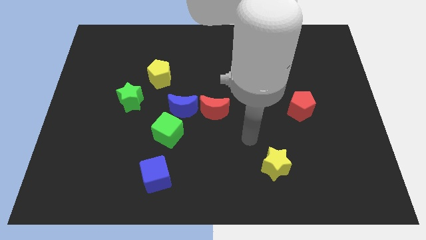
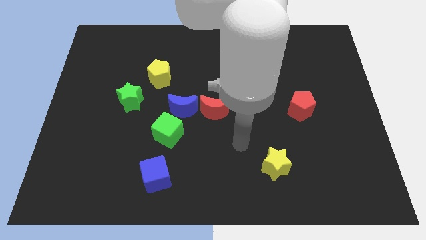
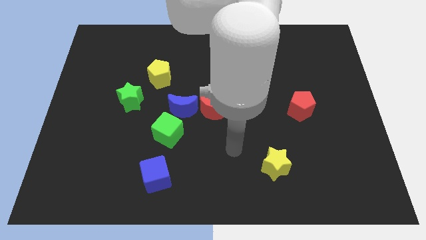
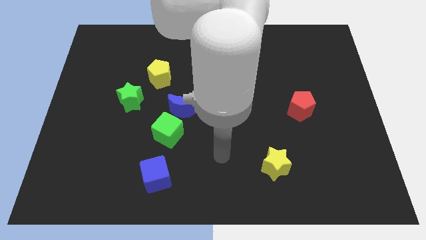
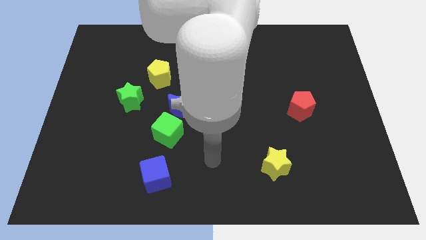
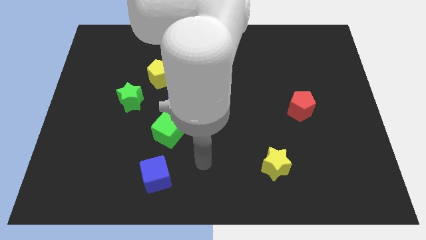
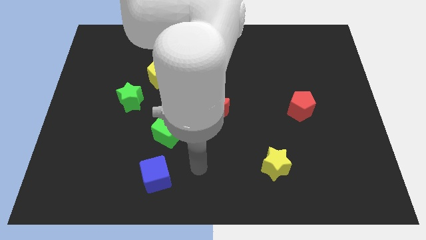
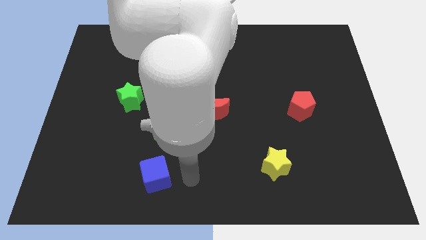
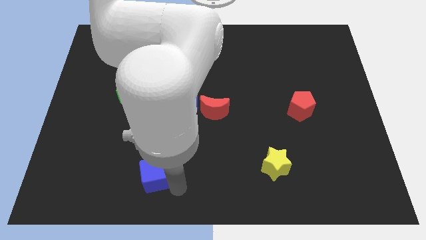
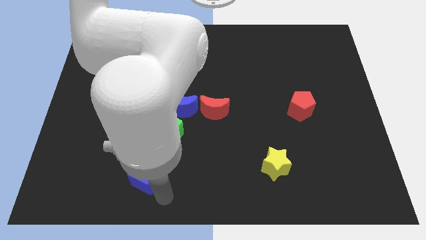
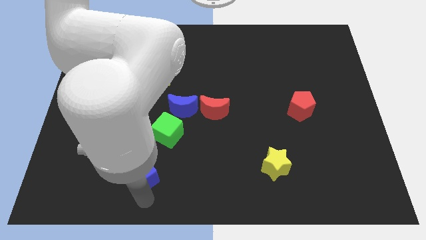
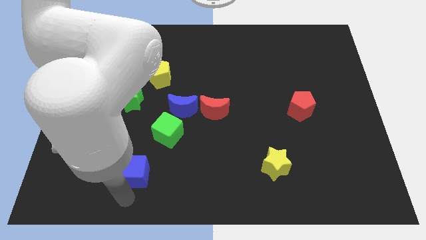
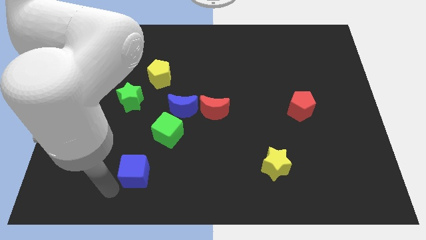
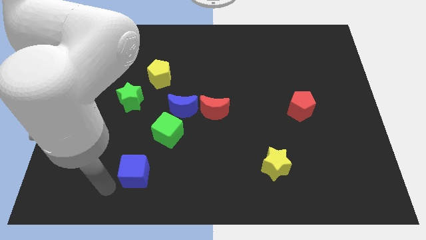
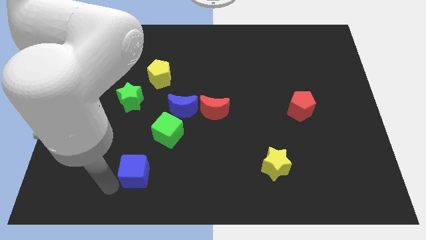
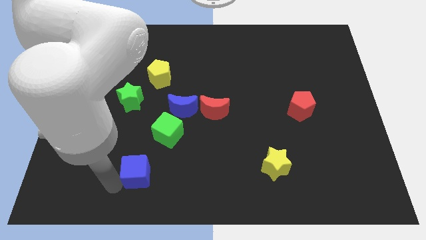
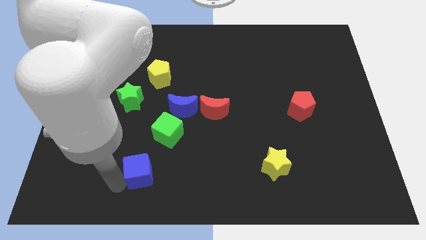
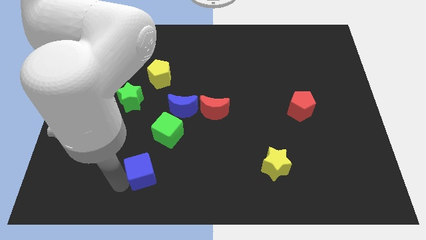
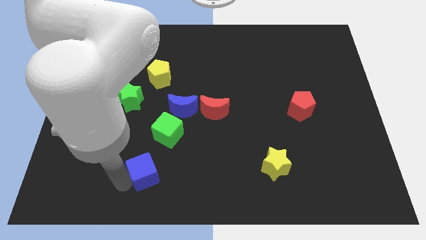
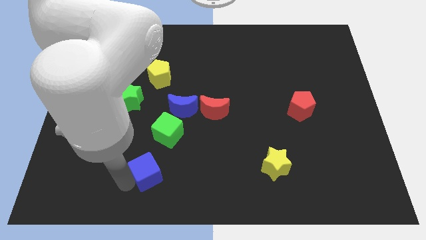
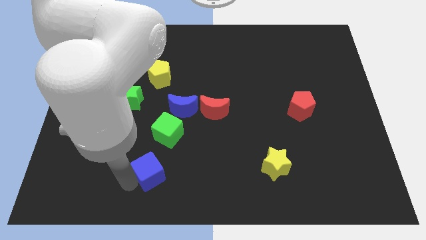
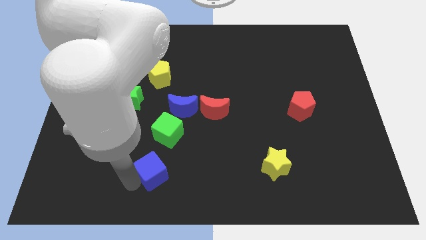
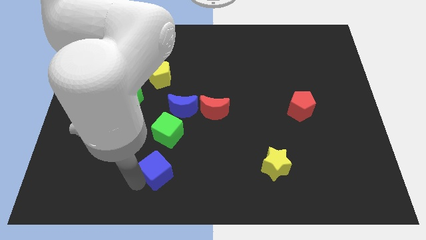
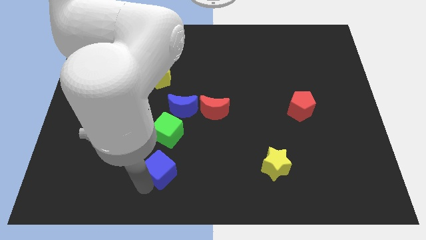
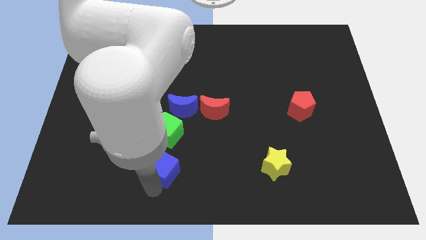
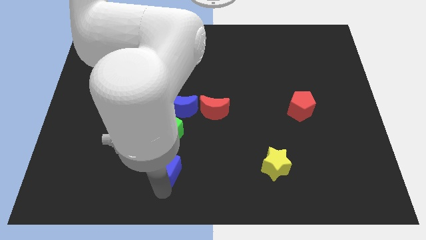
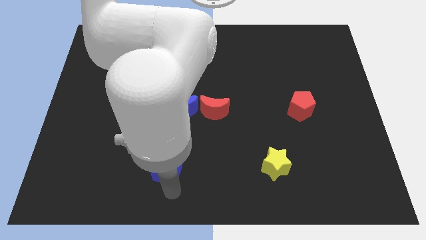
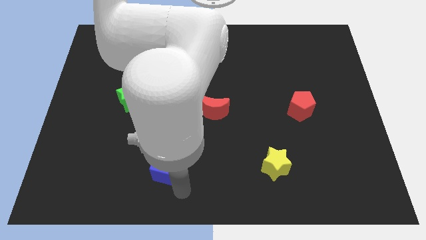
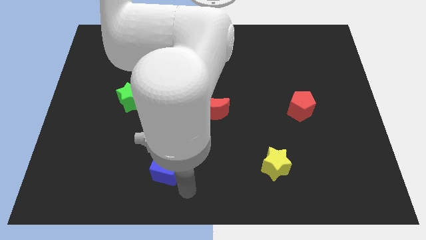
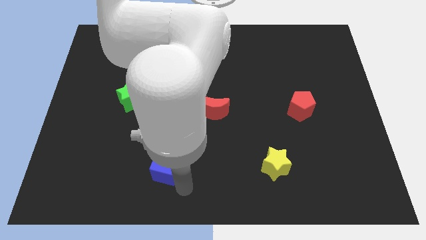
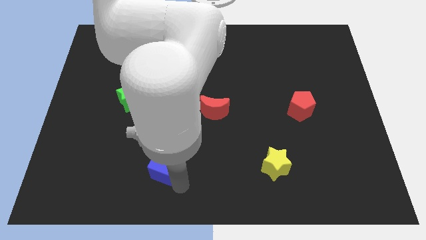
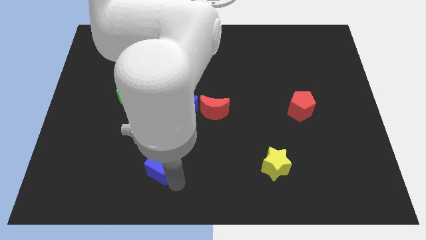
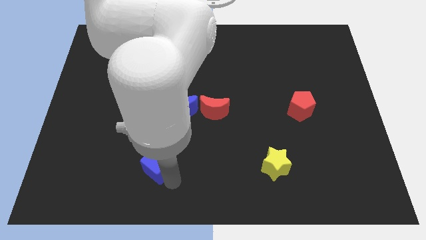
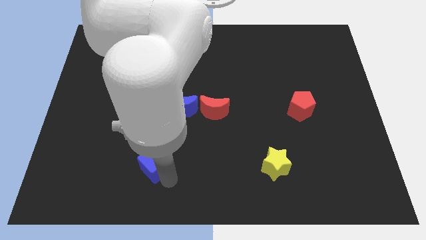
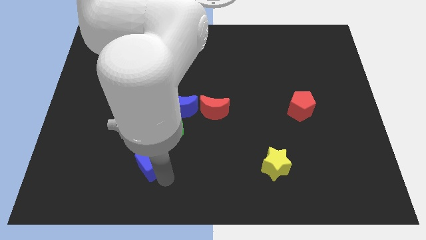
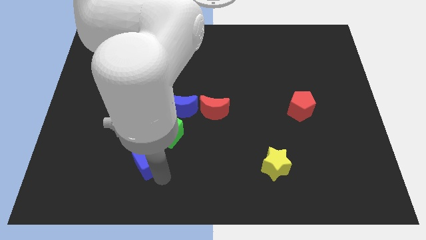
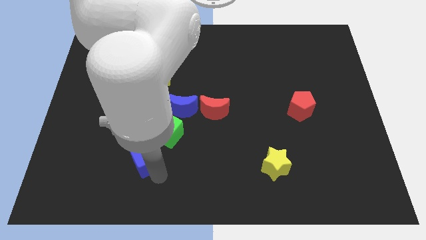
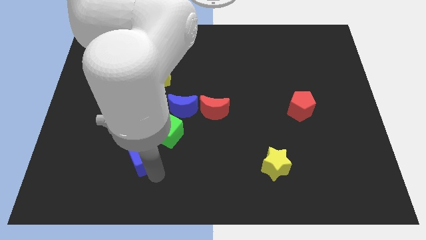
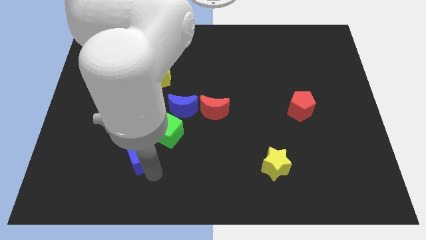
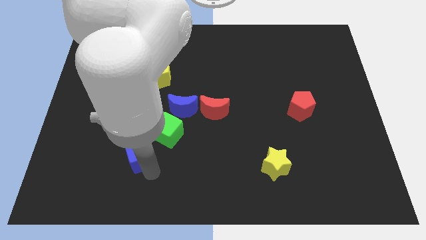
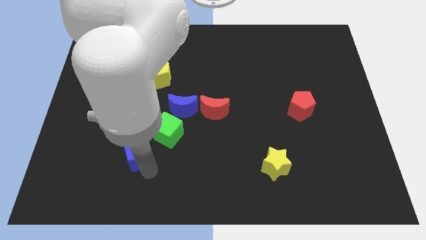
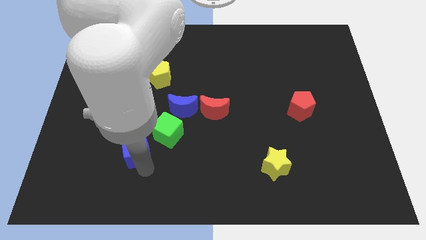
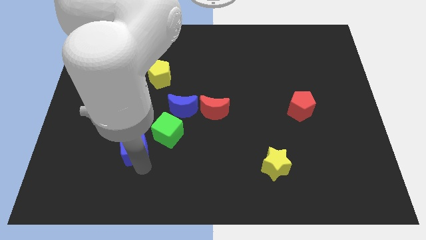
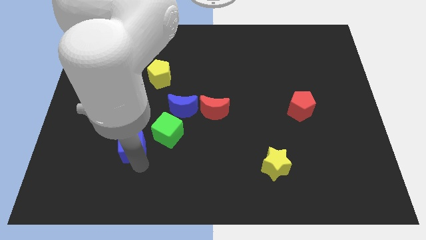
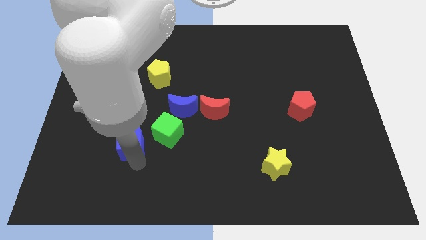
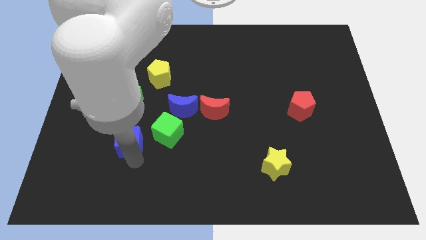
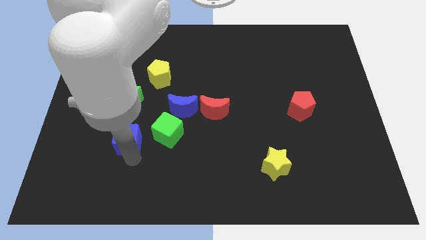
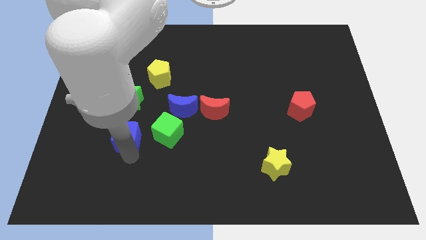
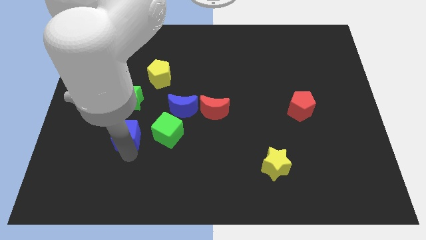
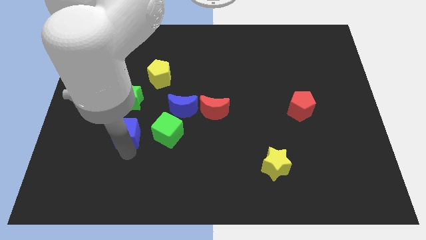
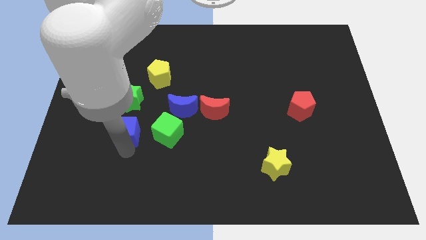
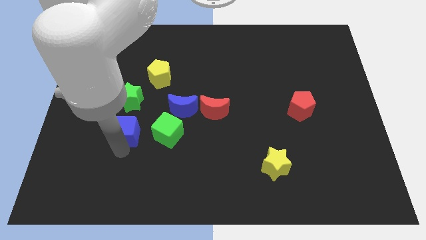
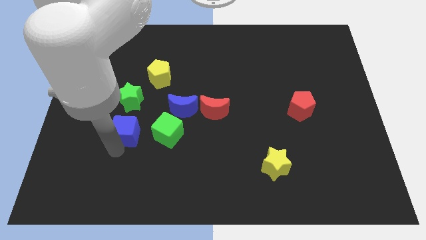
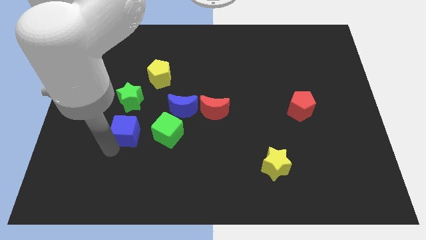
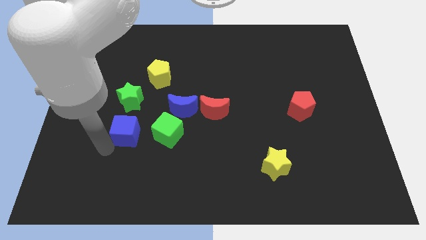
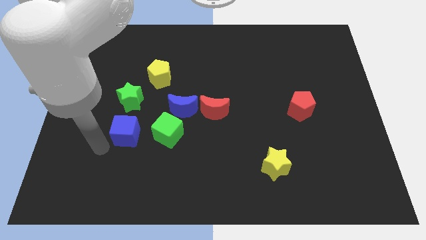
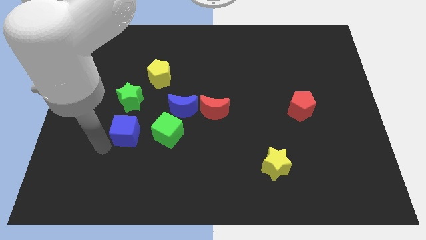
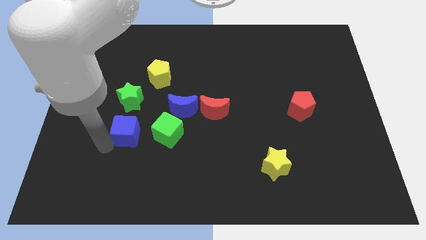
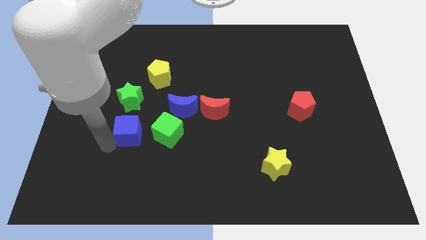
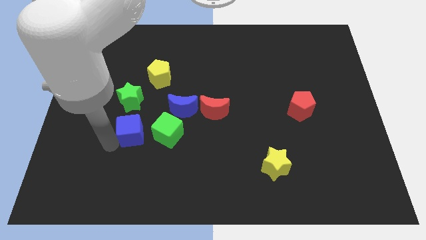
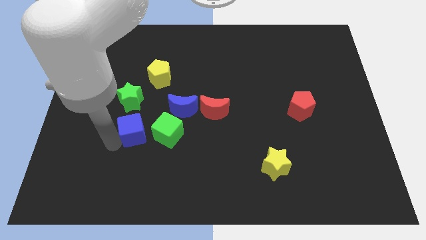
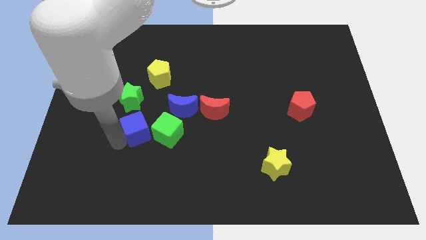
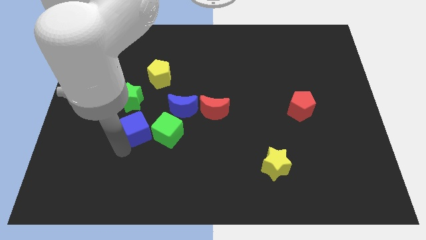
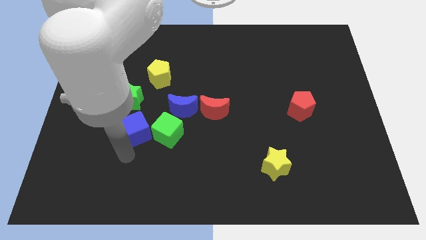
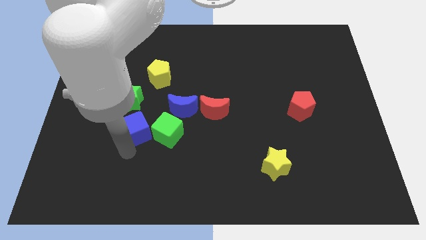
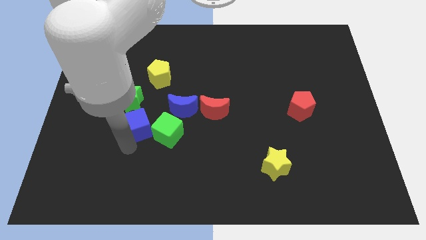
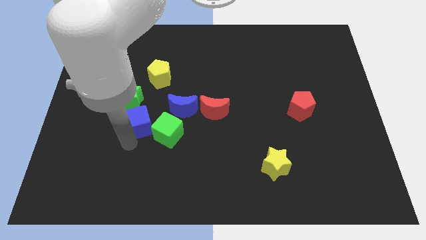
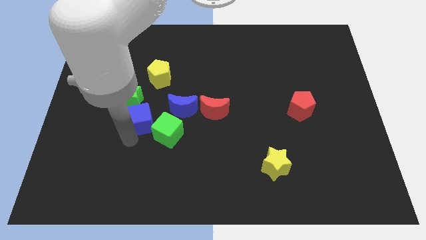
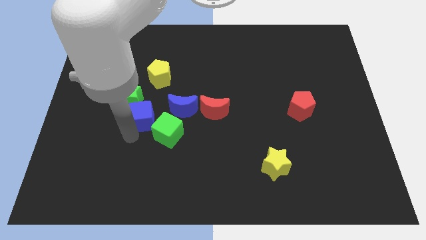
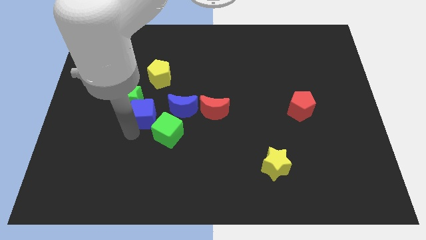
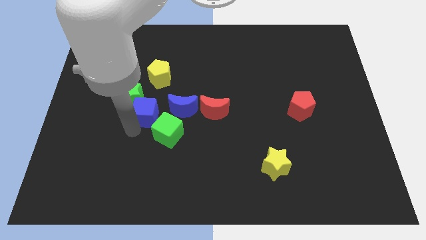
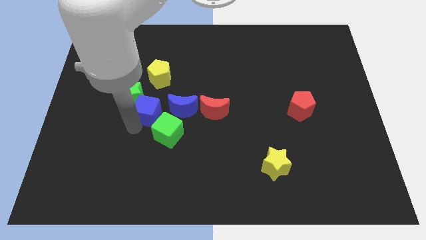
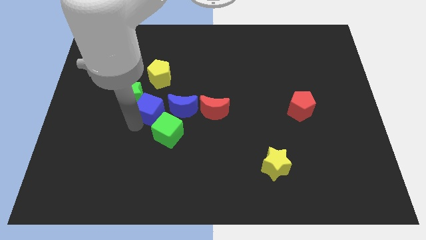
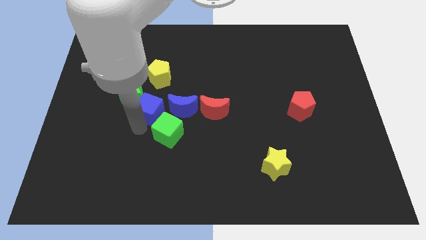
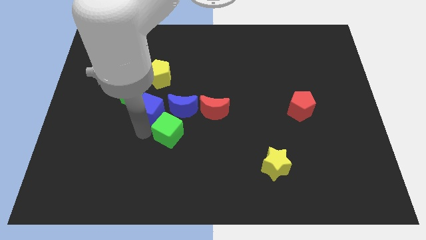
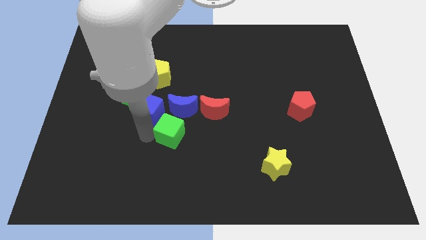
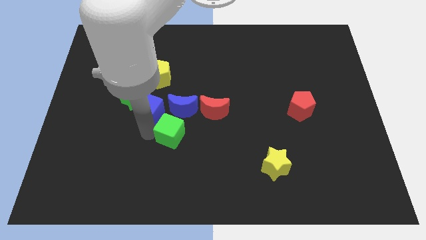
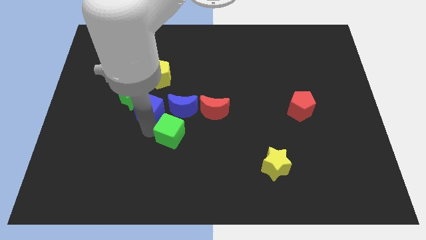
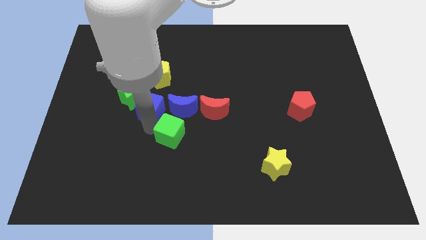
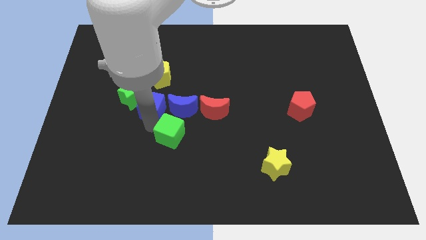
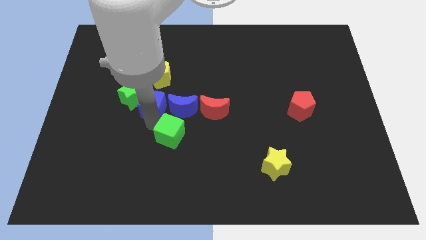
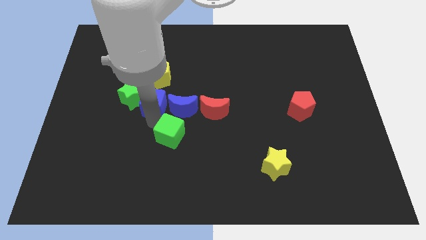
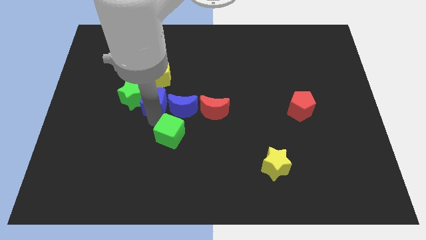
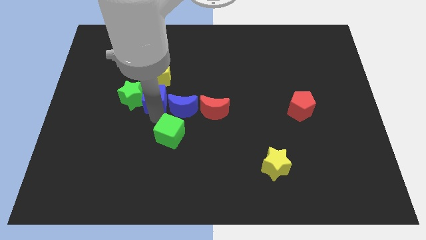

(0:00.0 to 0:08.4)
push the blue cube upwards
